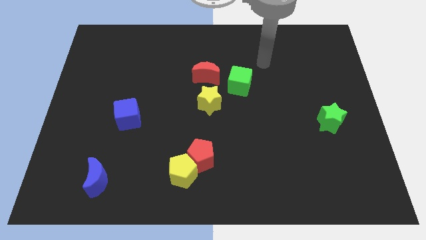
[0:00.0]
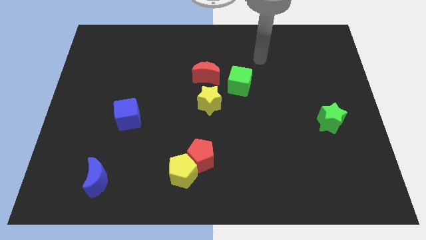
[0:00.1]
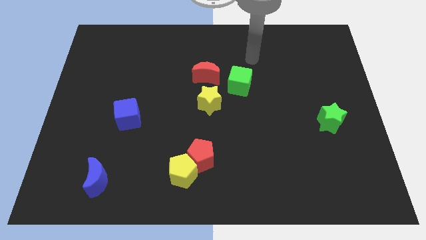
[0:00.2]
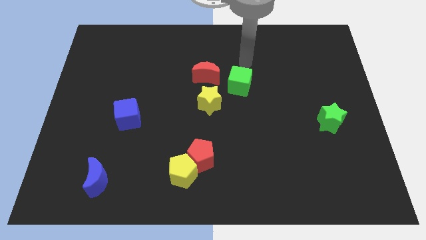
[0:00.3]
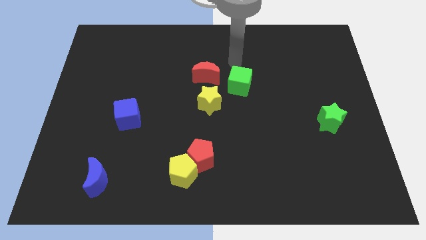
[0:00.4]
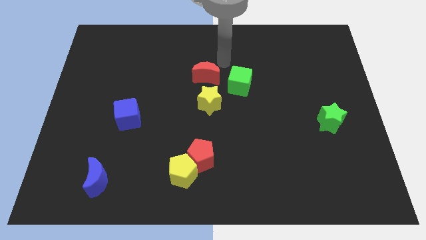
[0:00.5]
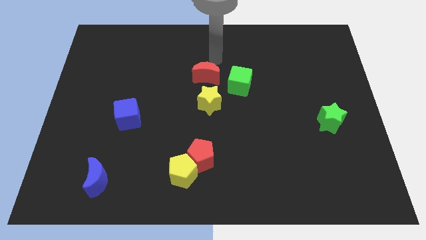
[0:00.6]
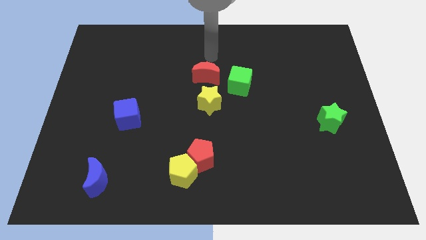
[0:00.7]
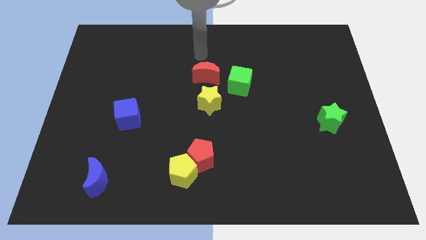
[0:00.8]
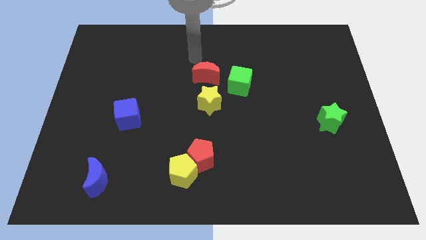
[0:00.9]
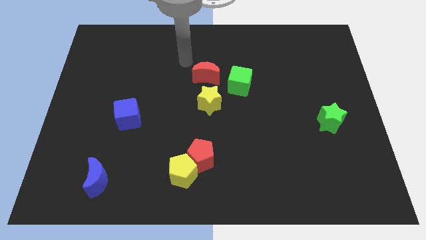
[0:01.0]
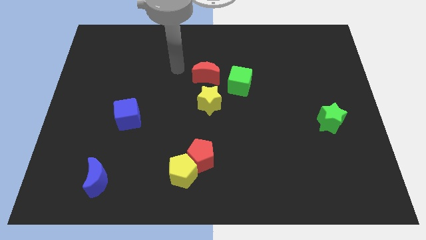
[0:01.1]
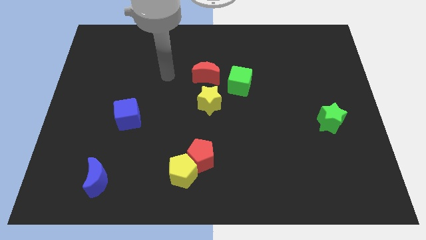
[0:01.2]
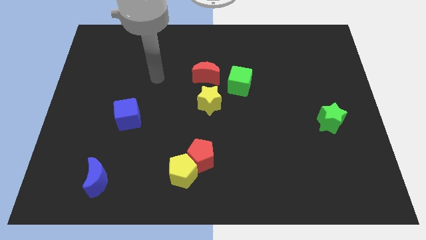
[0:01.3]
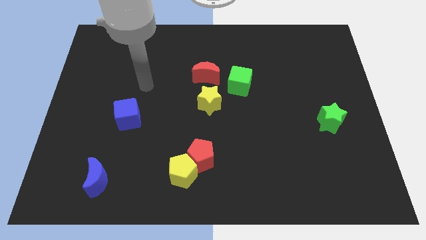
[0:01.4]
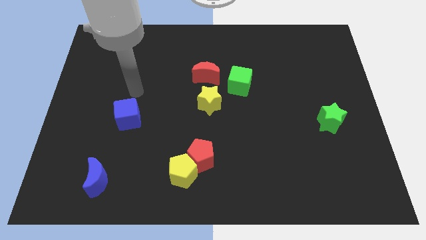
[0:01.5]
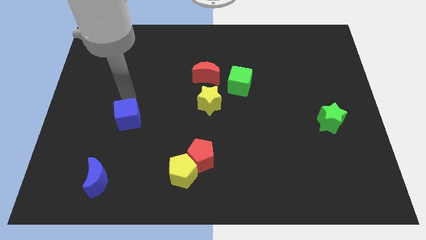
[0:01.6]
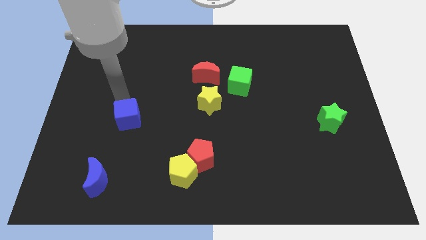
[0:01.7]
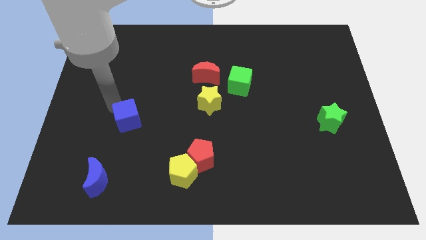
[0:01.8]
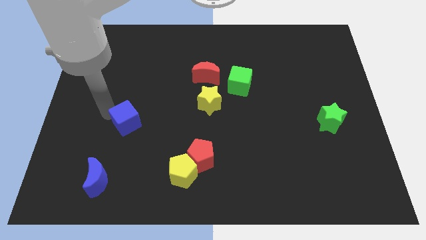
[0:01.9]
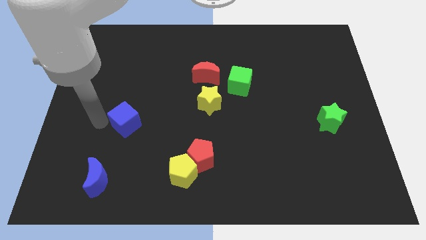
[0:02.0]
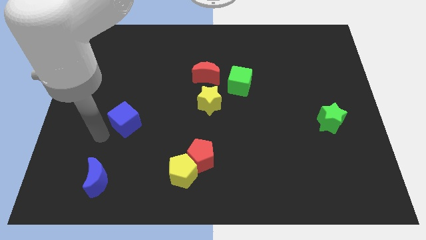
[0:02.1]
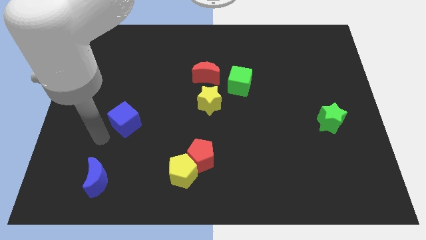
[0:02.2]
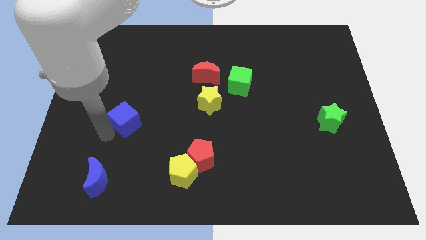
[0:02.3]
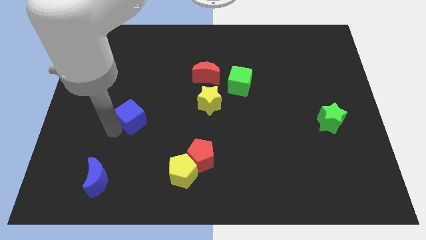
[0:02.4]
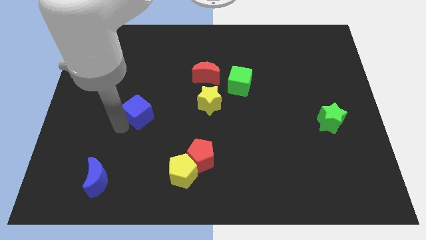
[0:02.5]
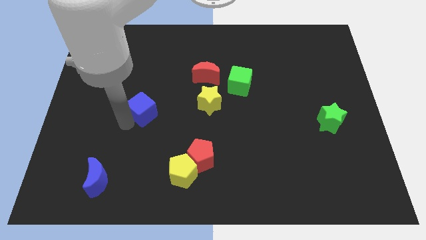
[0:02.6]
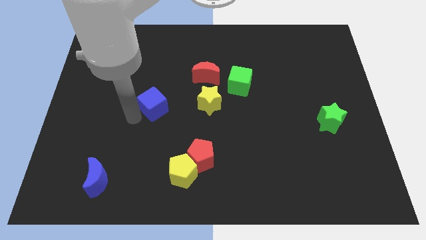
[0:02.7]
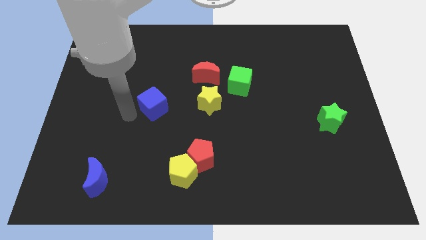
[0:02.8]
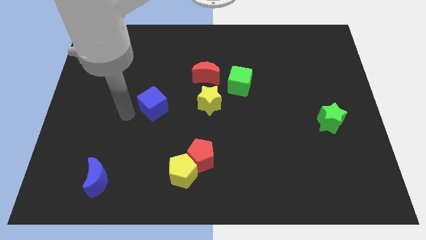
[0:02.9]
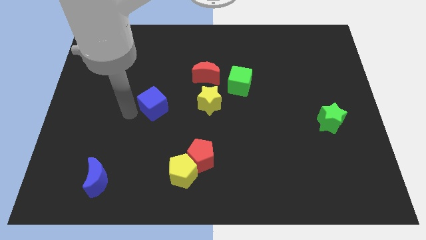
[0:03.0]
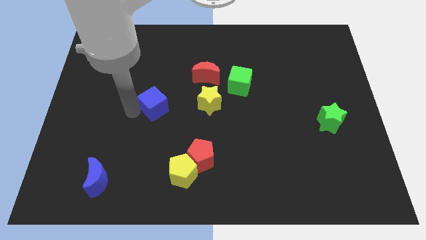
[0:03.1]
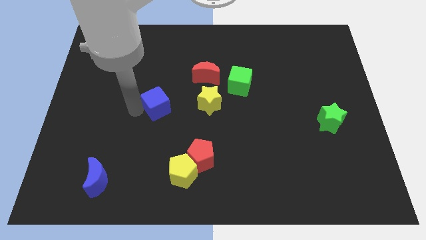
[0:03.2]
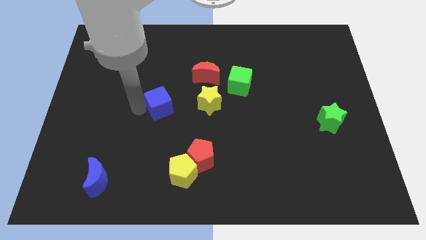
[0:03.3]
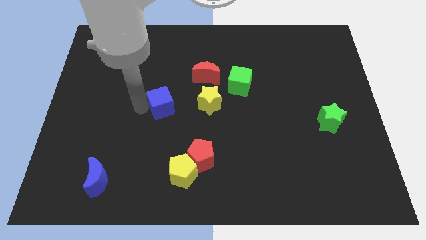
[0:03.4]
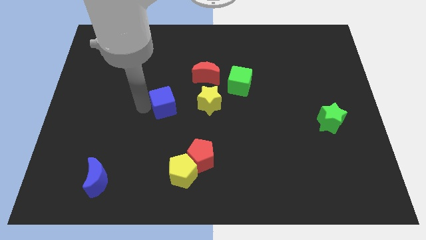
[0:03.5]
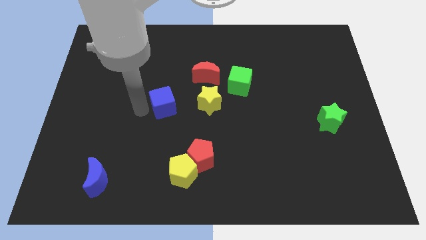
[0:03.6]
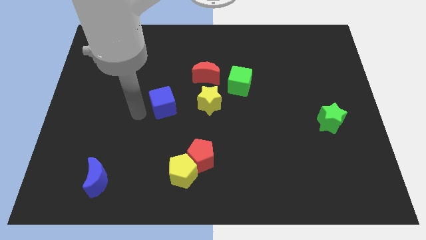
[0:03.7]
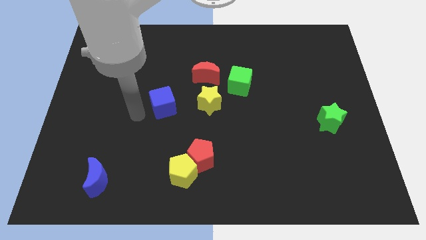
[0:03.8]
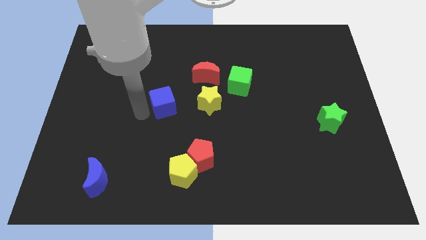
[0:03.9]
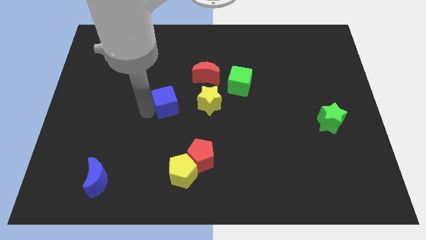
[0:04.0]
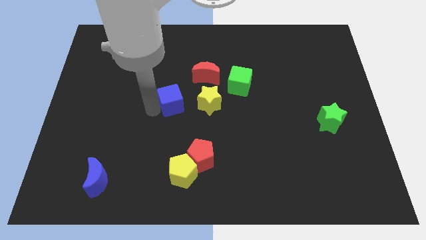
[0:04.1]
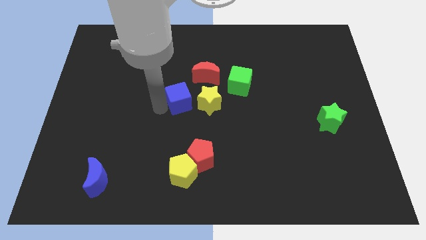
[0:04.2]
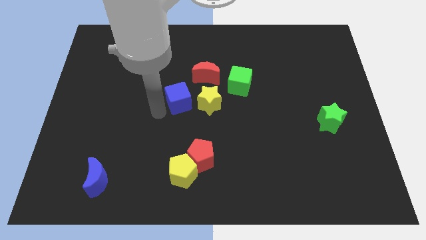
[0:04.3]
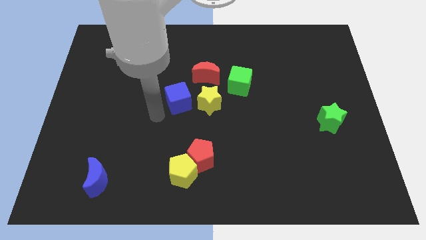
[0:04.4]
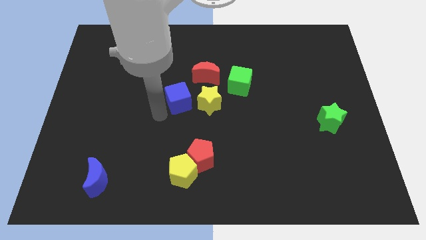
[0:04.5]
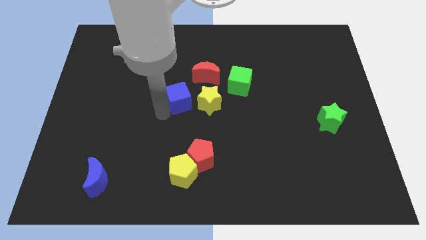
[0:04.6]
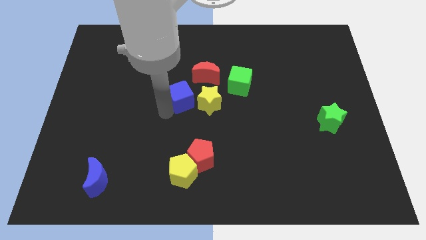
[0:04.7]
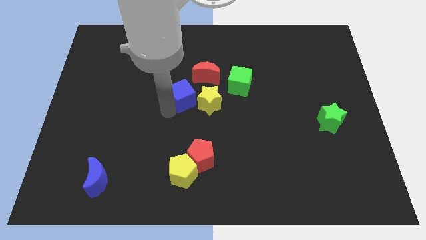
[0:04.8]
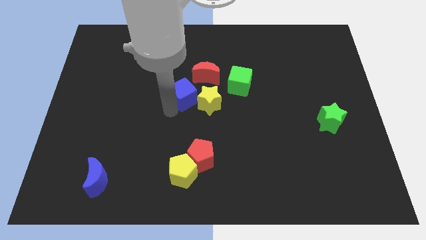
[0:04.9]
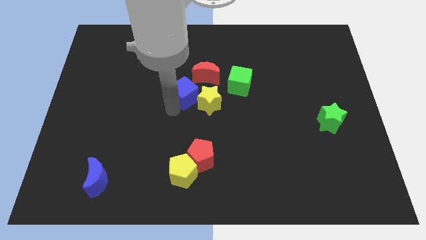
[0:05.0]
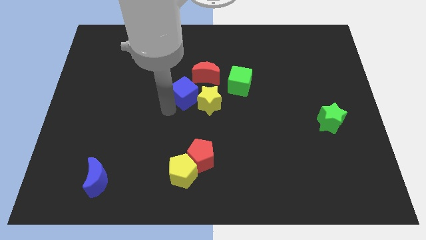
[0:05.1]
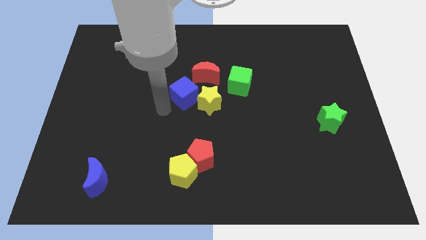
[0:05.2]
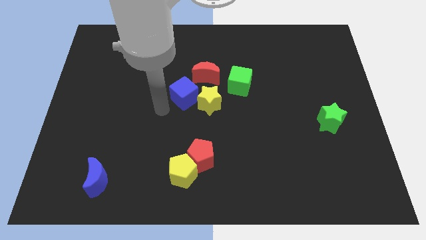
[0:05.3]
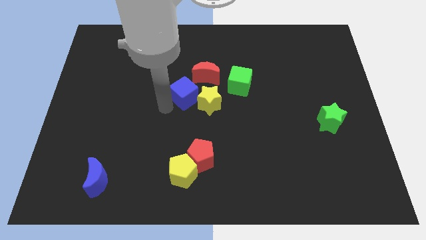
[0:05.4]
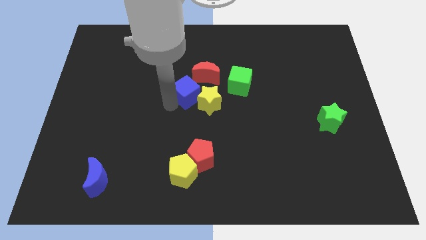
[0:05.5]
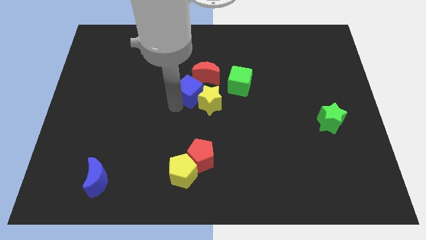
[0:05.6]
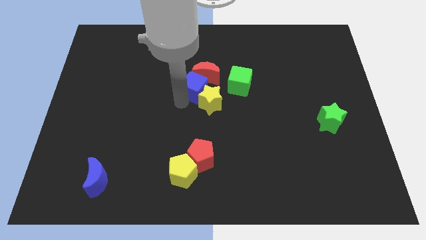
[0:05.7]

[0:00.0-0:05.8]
slide the blue cube to the red moon

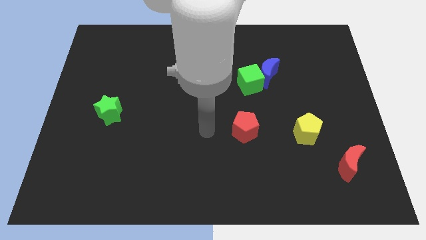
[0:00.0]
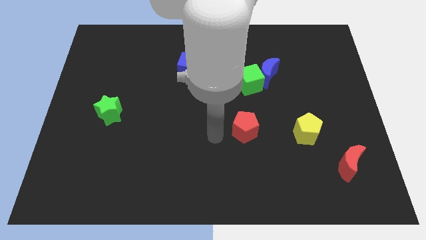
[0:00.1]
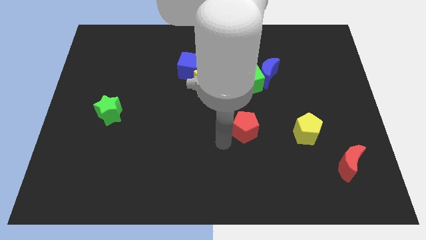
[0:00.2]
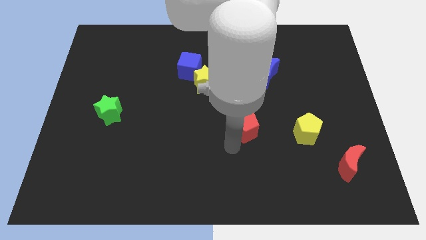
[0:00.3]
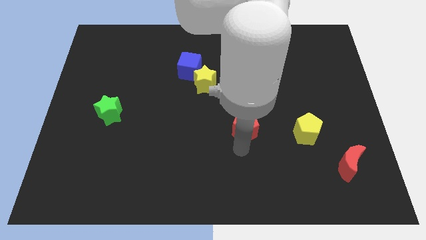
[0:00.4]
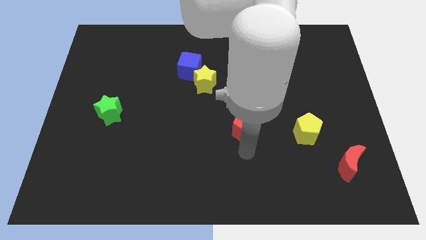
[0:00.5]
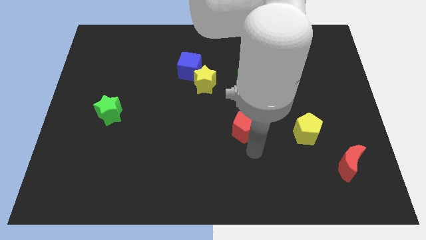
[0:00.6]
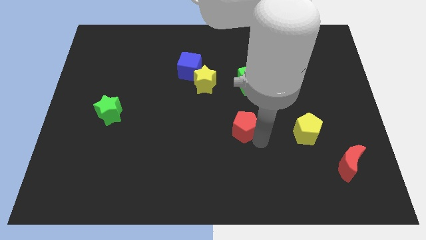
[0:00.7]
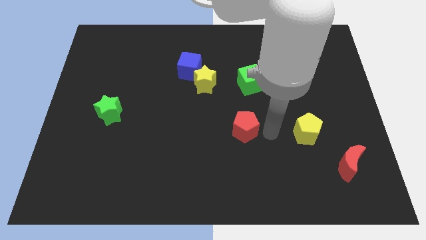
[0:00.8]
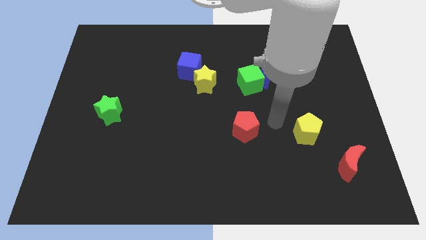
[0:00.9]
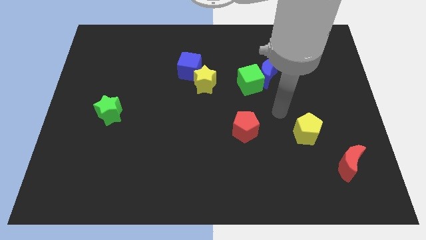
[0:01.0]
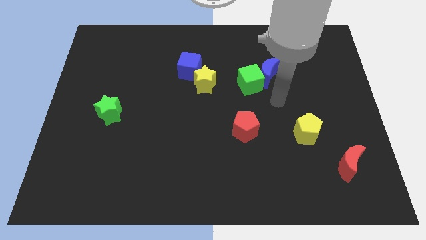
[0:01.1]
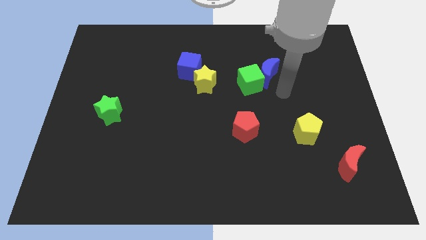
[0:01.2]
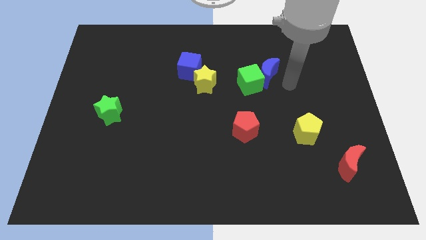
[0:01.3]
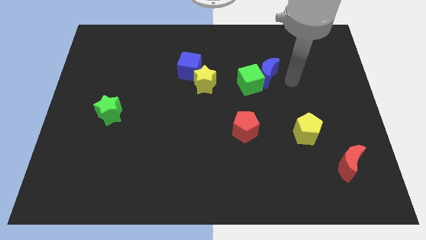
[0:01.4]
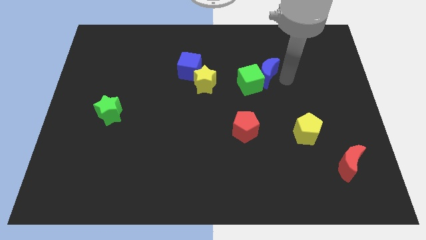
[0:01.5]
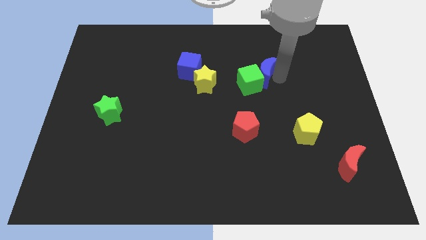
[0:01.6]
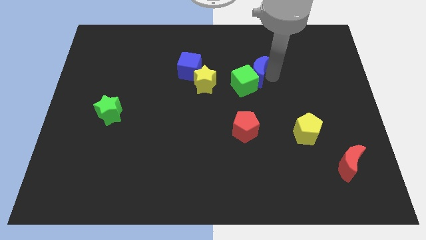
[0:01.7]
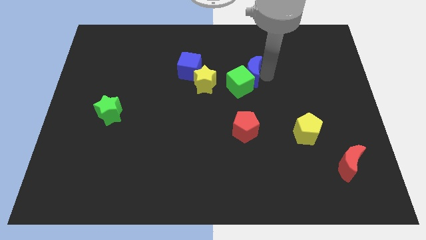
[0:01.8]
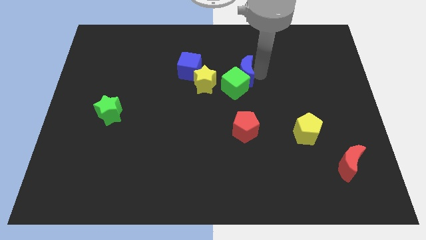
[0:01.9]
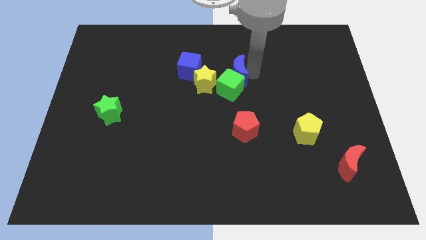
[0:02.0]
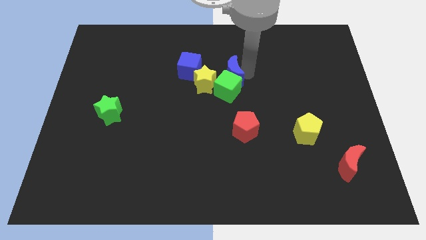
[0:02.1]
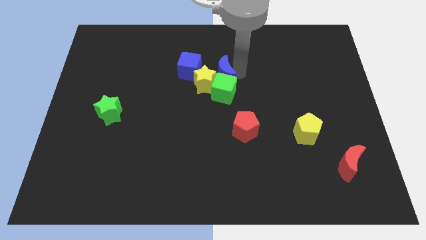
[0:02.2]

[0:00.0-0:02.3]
push the blue moon to the yellow star
